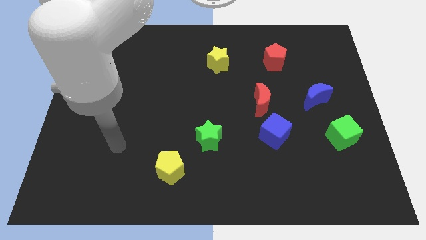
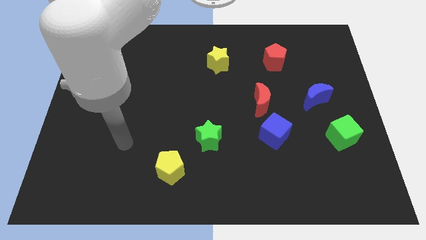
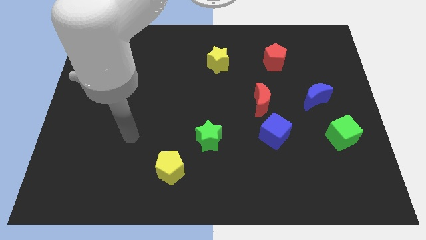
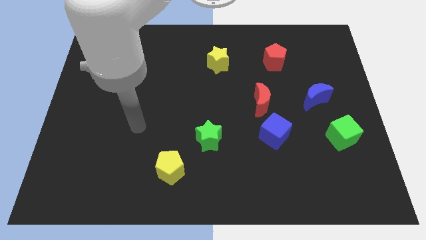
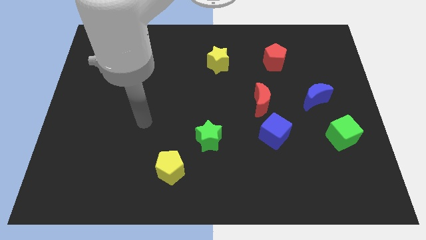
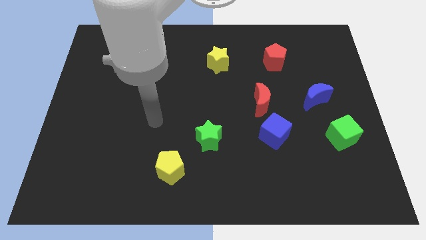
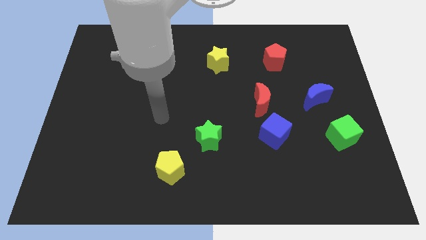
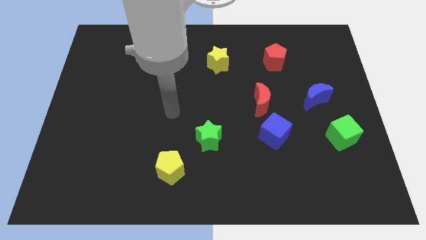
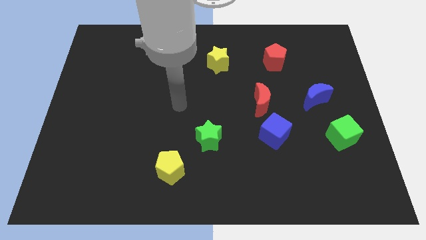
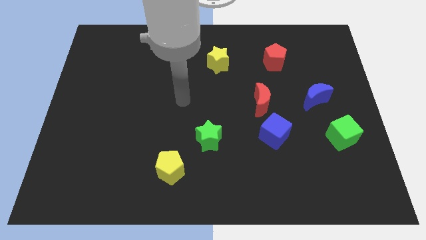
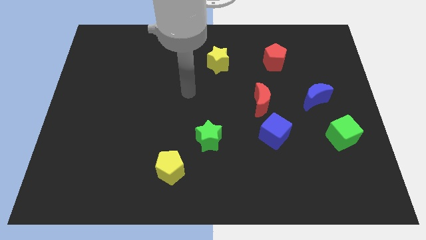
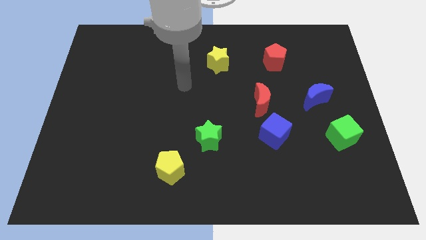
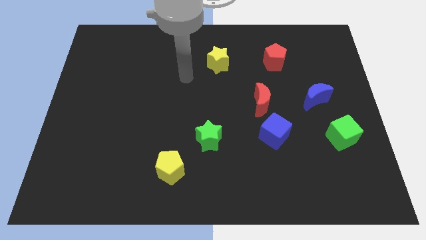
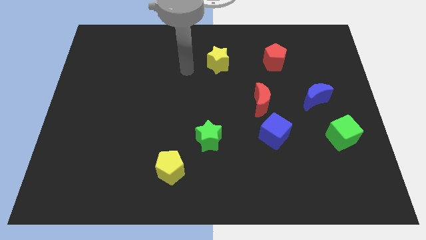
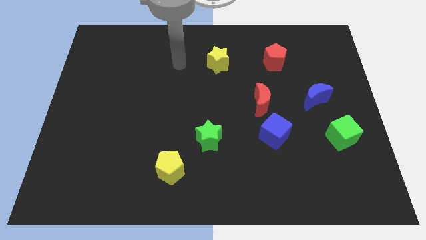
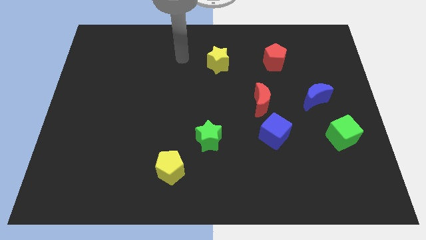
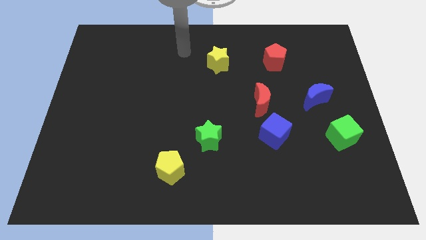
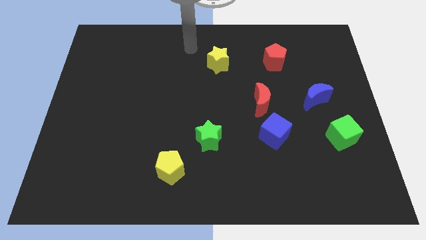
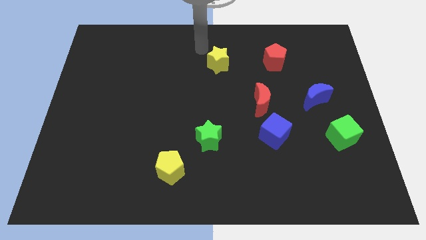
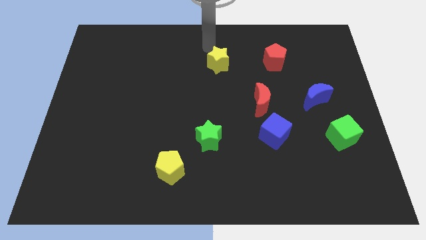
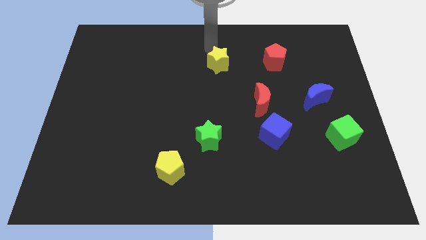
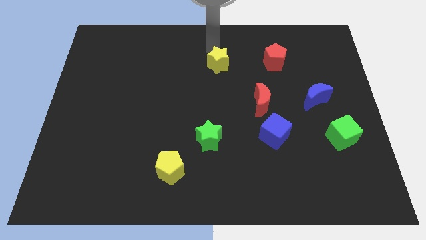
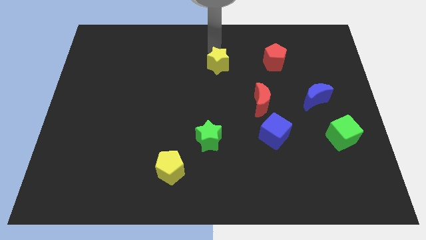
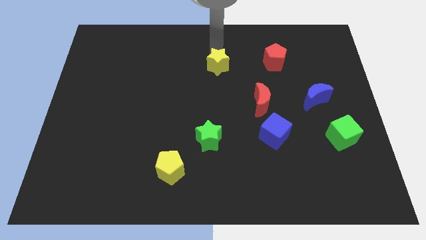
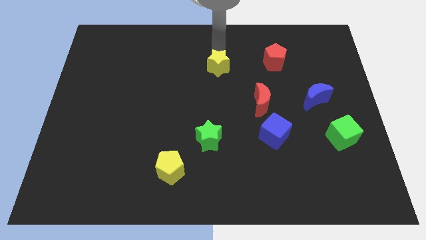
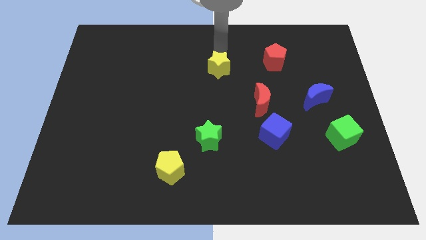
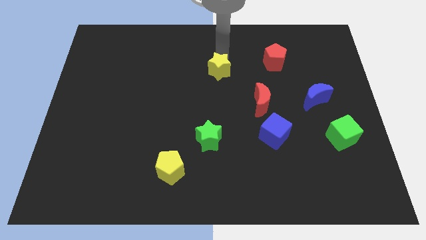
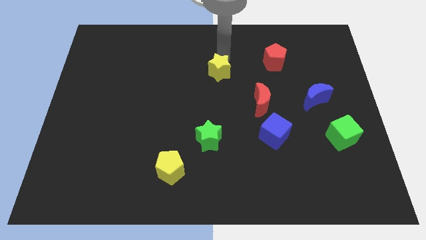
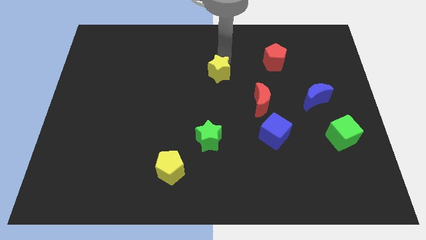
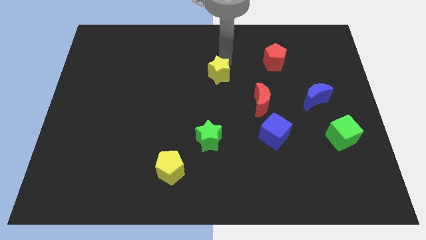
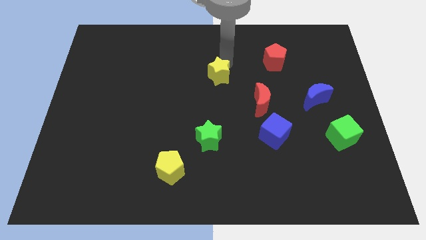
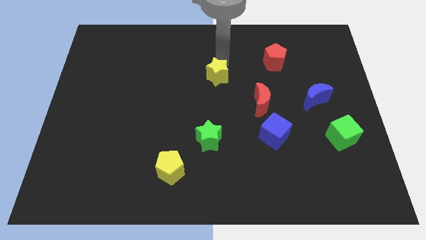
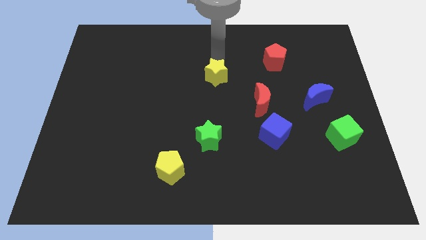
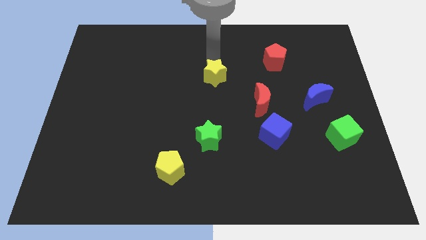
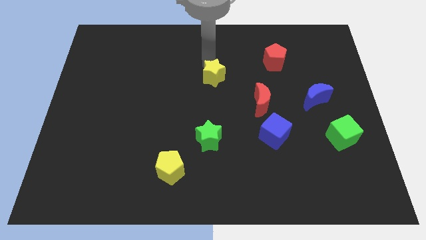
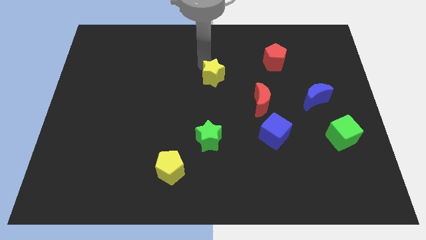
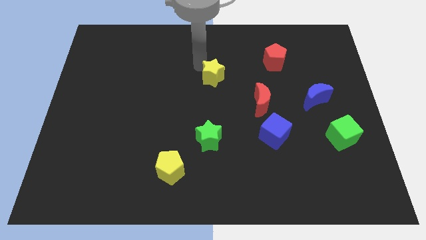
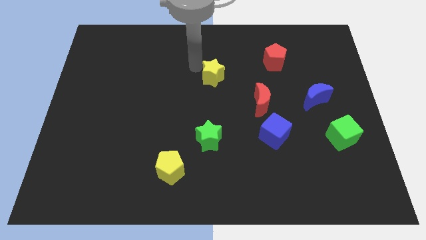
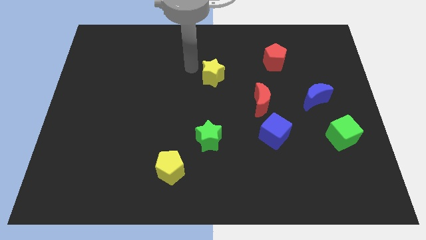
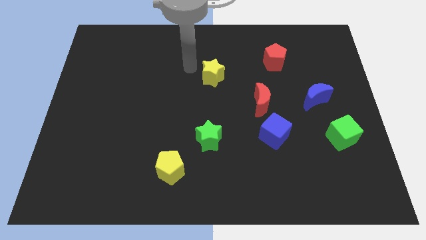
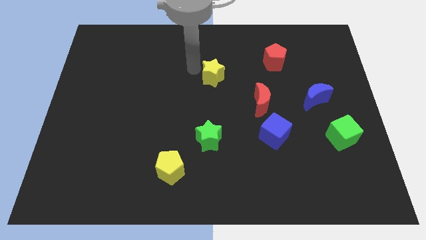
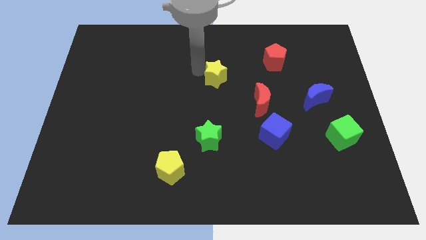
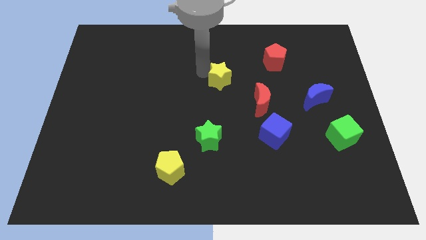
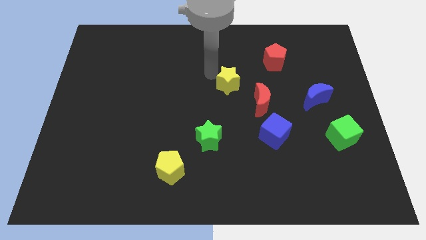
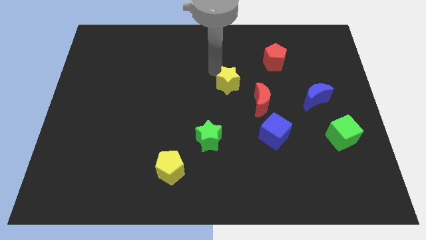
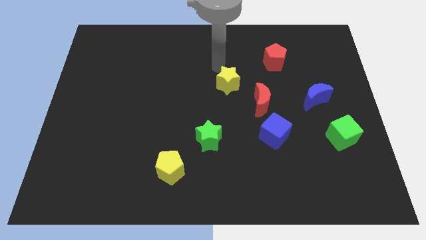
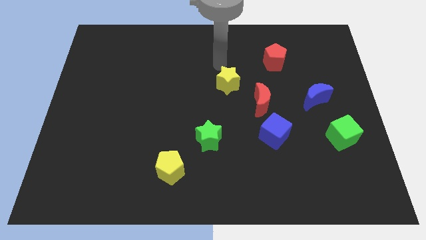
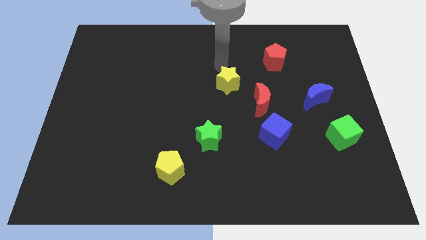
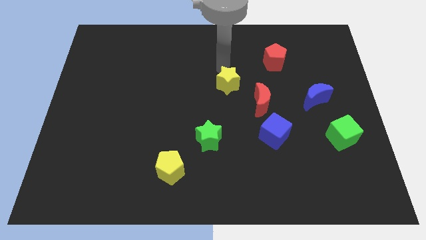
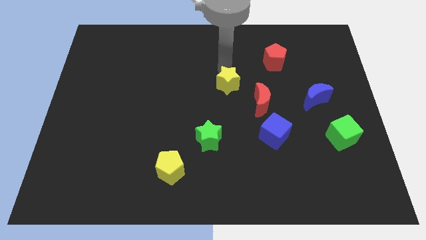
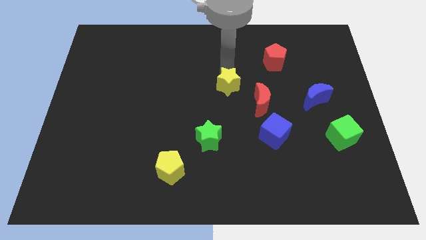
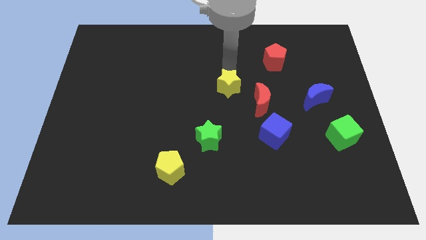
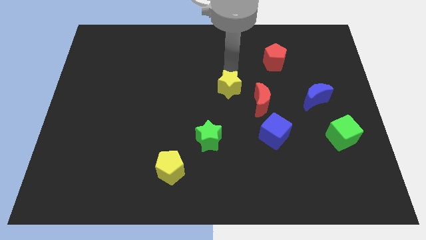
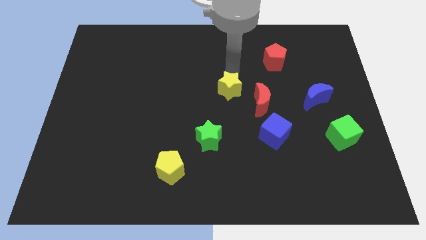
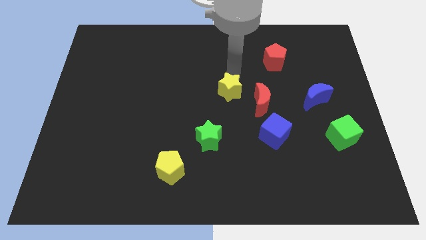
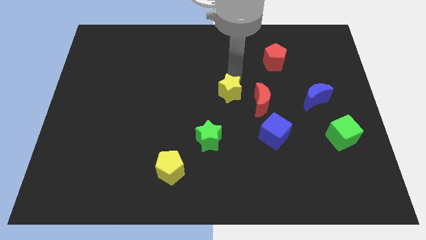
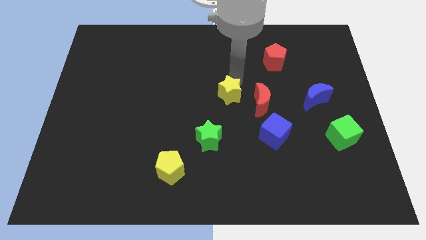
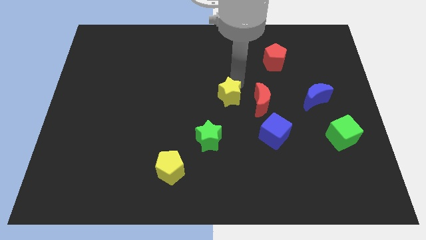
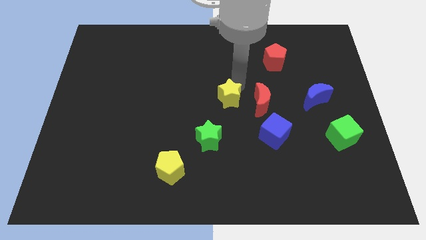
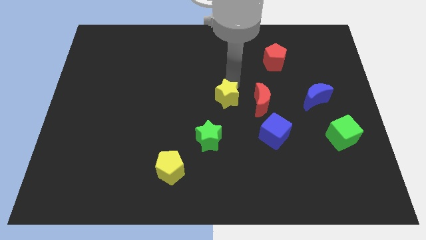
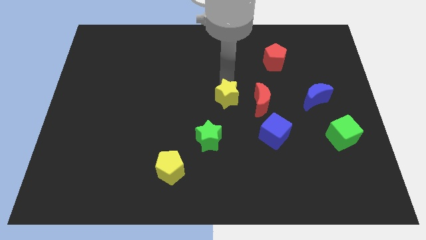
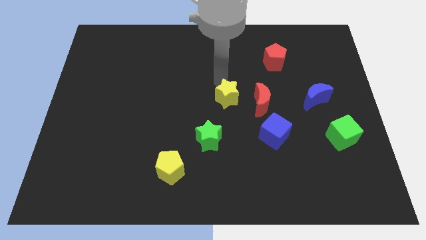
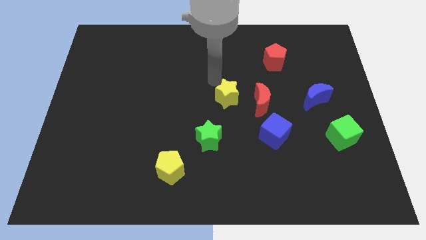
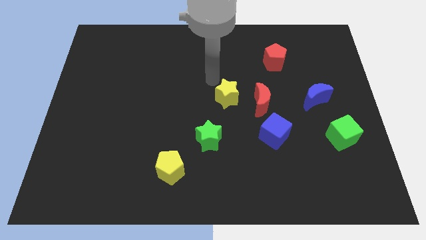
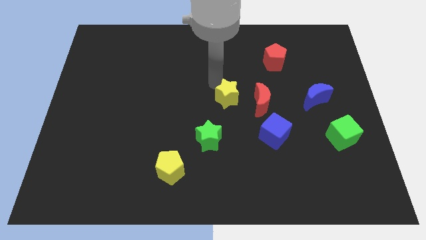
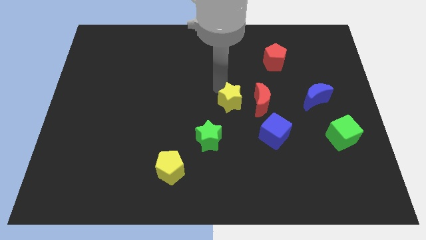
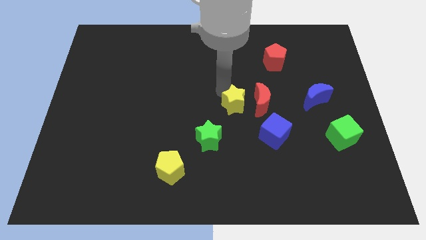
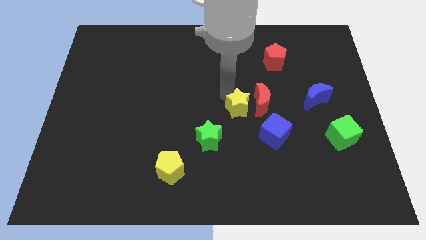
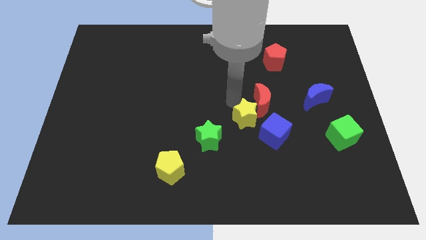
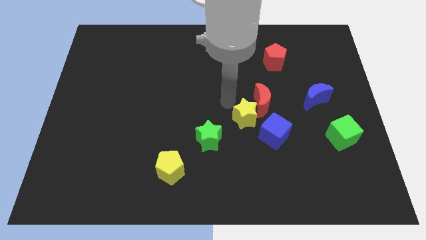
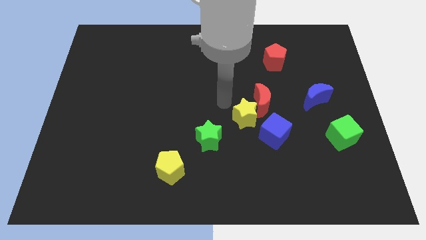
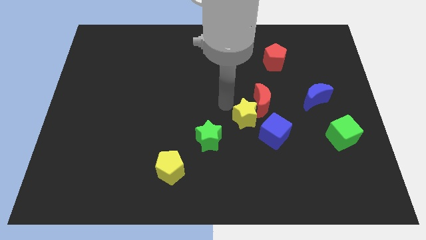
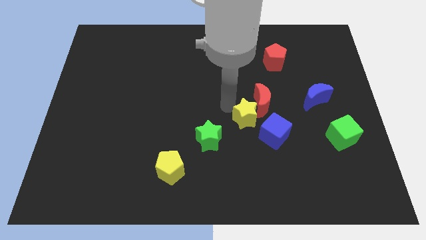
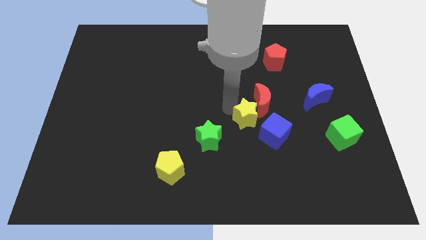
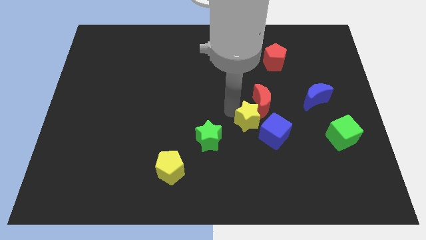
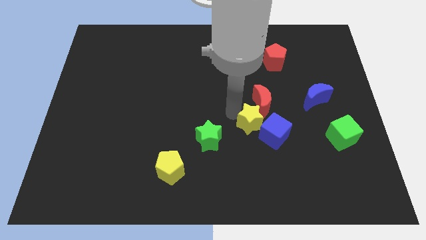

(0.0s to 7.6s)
move the yellow star towards the blue cube
